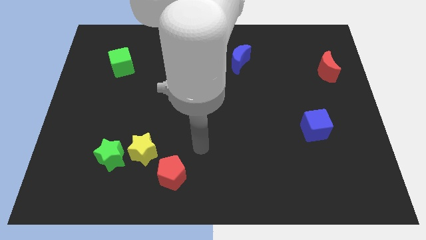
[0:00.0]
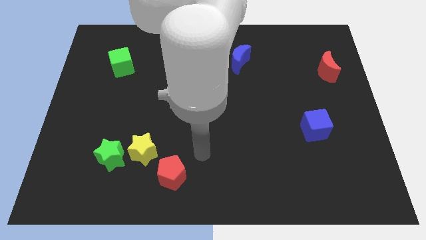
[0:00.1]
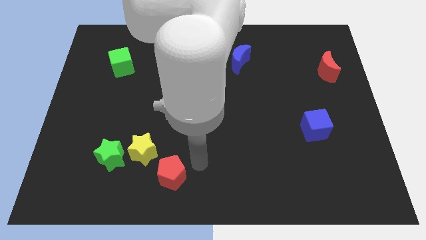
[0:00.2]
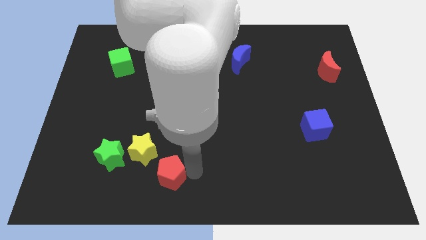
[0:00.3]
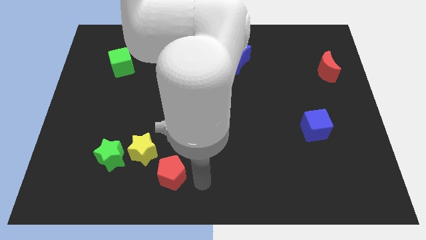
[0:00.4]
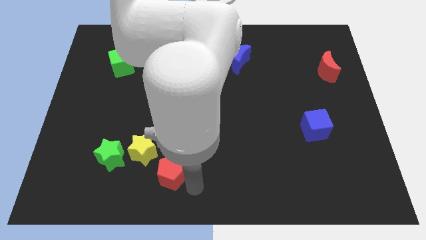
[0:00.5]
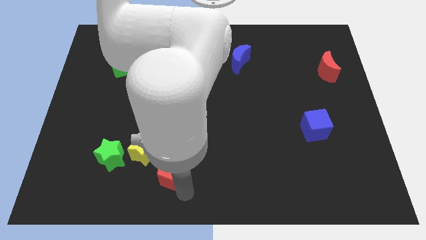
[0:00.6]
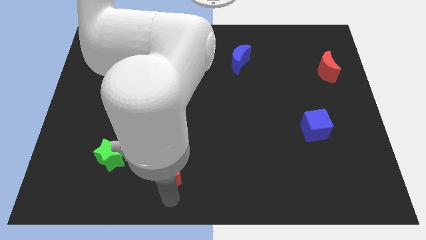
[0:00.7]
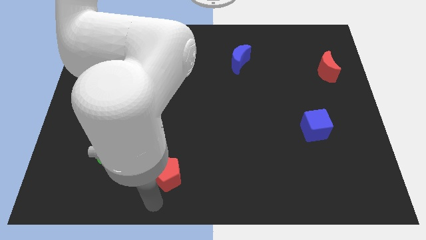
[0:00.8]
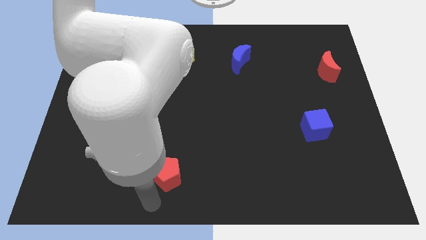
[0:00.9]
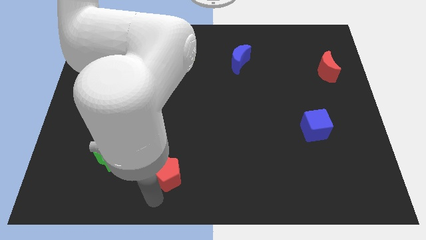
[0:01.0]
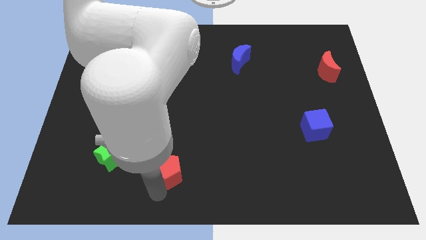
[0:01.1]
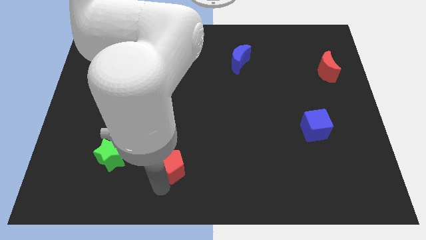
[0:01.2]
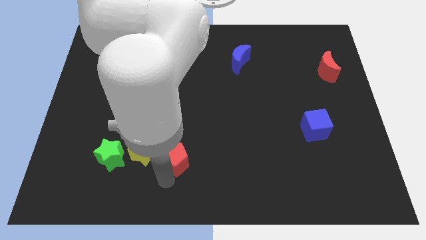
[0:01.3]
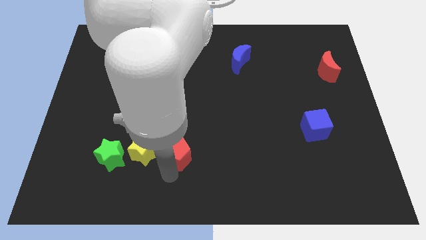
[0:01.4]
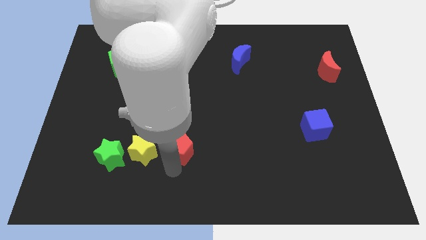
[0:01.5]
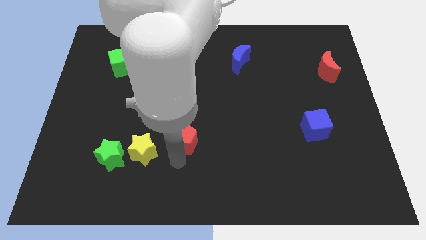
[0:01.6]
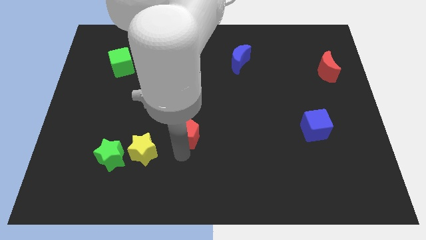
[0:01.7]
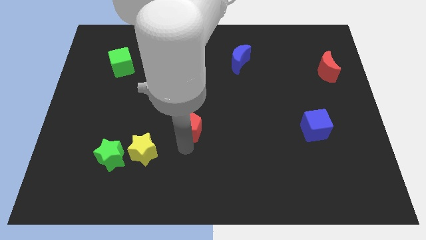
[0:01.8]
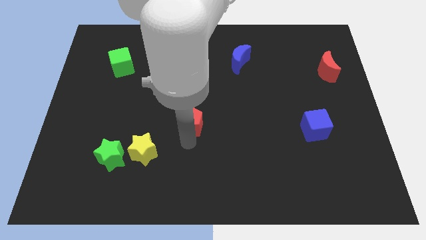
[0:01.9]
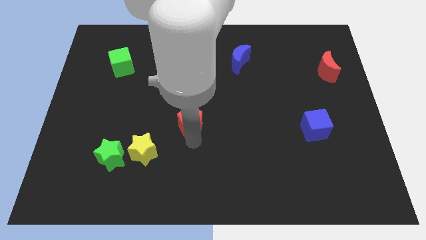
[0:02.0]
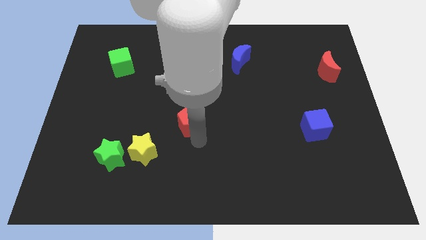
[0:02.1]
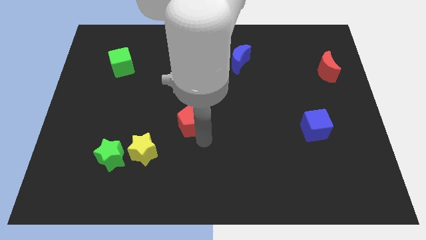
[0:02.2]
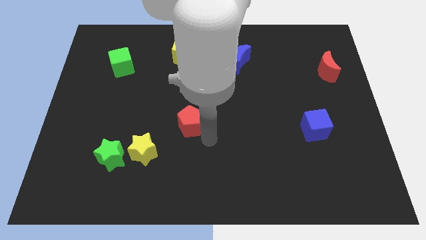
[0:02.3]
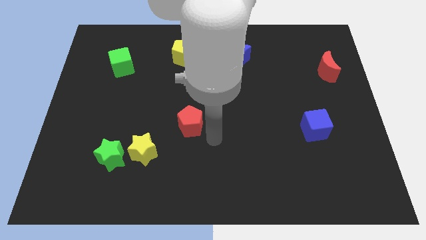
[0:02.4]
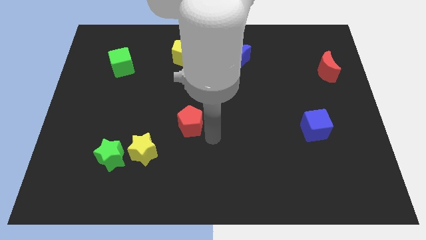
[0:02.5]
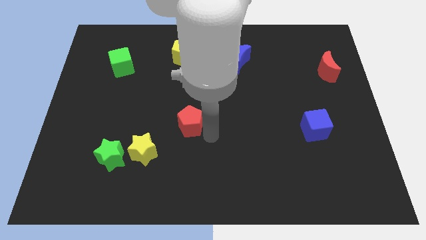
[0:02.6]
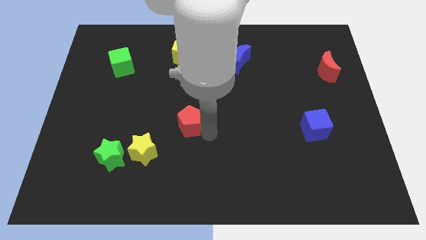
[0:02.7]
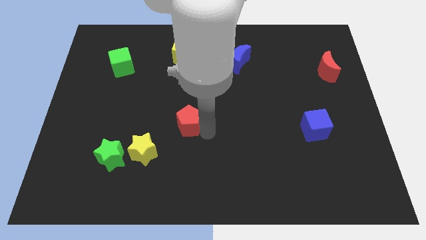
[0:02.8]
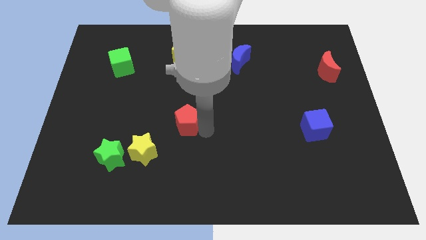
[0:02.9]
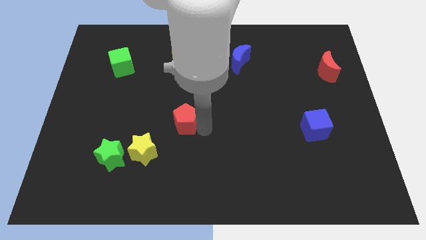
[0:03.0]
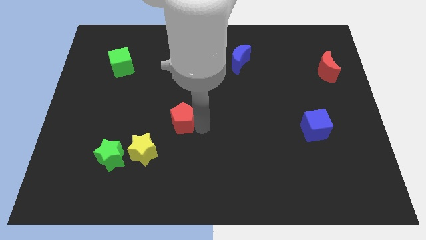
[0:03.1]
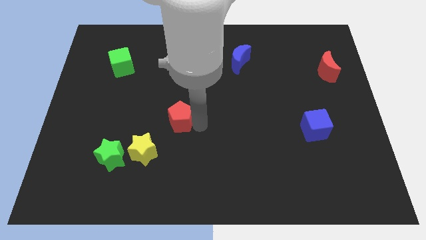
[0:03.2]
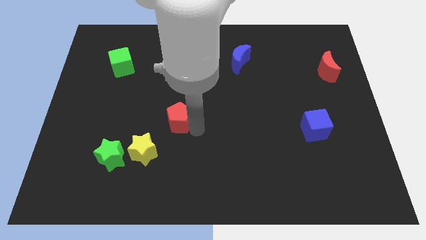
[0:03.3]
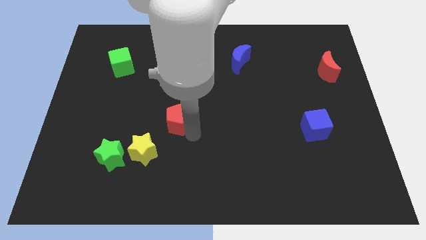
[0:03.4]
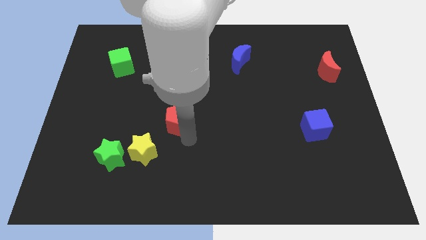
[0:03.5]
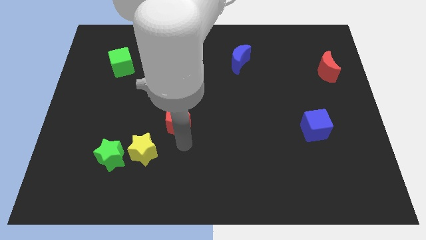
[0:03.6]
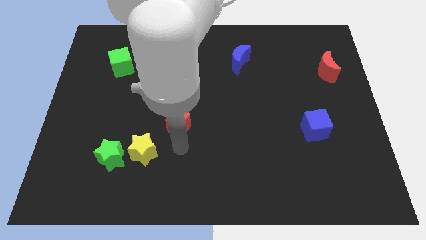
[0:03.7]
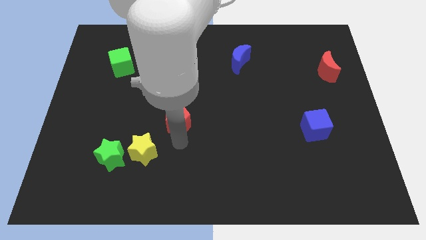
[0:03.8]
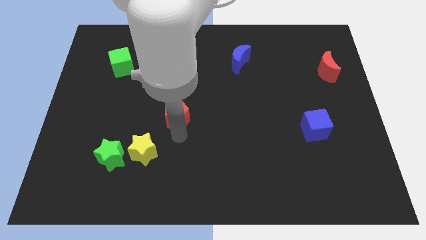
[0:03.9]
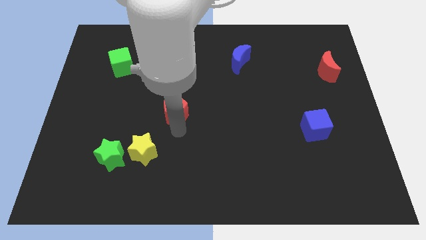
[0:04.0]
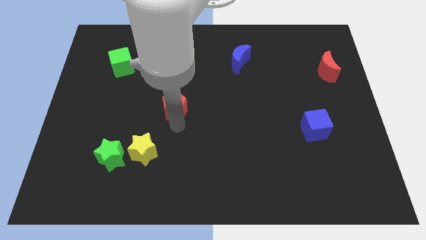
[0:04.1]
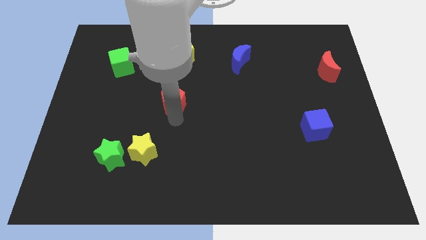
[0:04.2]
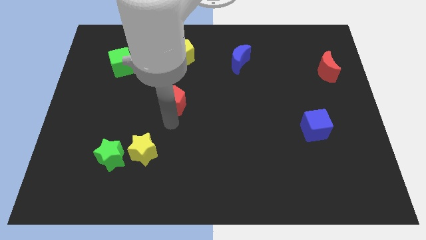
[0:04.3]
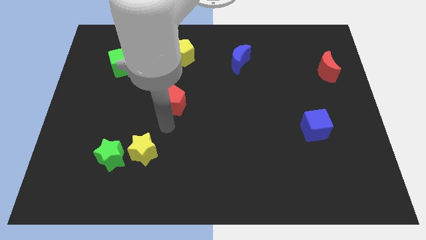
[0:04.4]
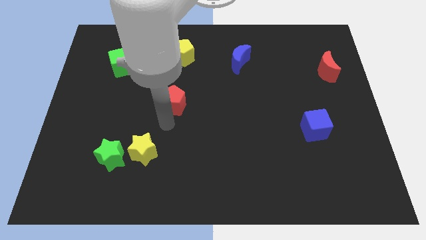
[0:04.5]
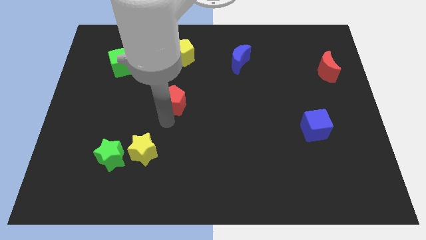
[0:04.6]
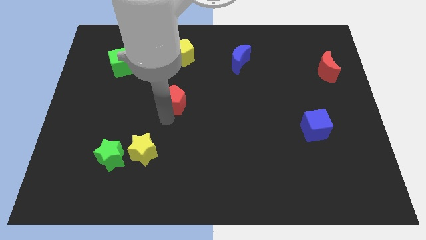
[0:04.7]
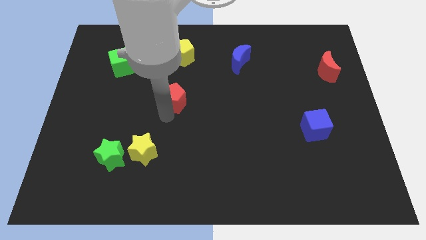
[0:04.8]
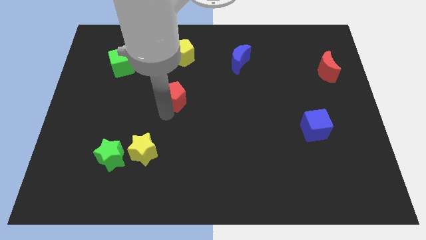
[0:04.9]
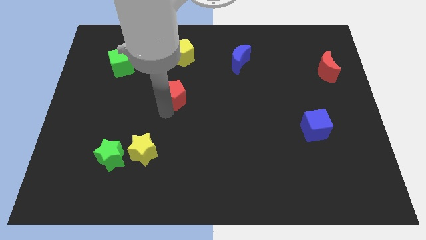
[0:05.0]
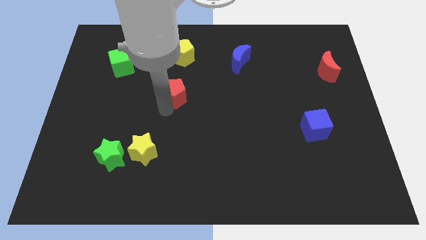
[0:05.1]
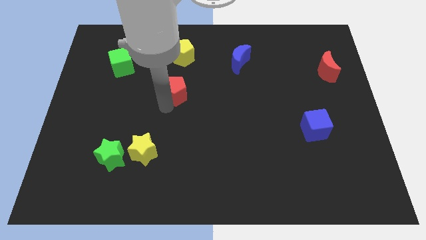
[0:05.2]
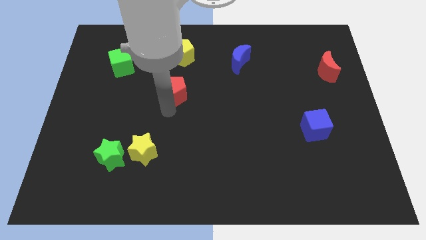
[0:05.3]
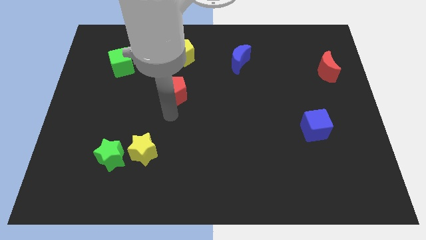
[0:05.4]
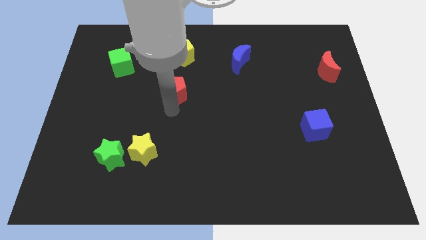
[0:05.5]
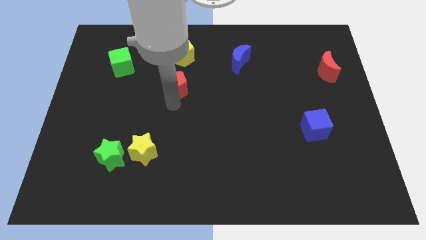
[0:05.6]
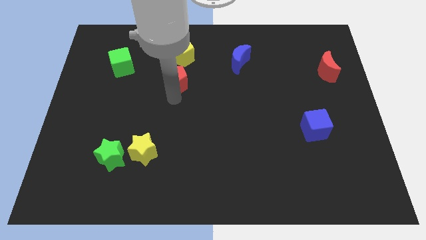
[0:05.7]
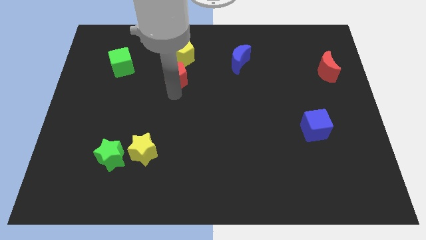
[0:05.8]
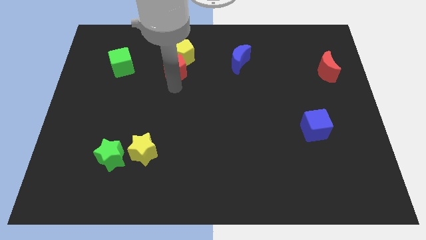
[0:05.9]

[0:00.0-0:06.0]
push the red pentagon close to the yellow pentagon

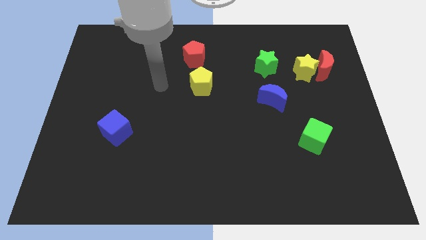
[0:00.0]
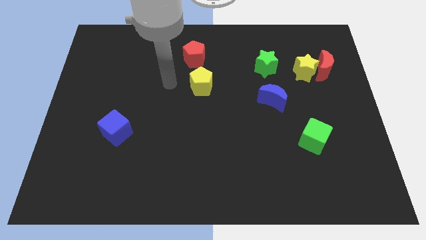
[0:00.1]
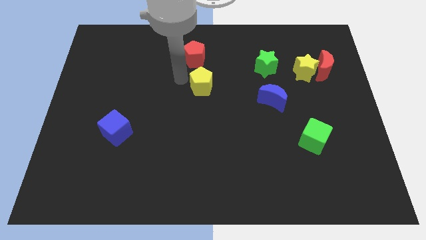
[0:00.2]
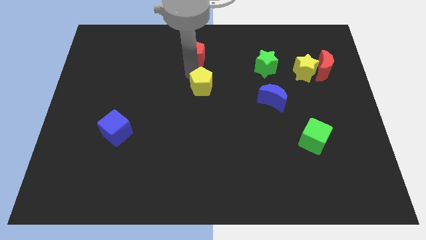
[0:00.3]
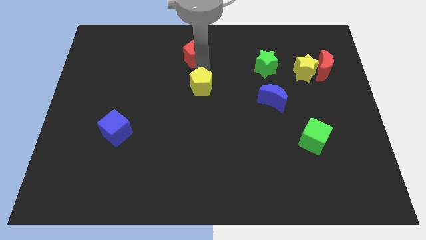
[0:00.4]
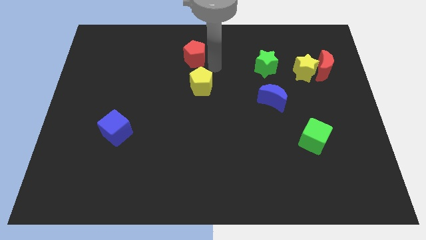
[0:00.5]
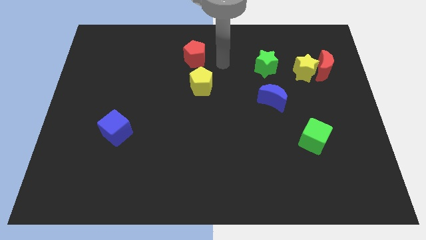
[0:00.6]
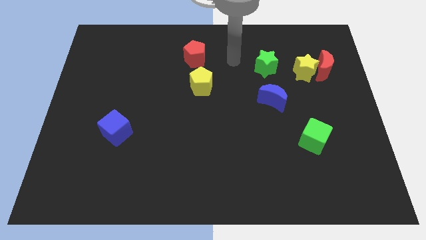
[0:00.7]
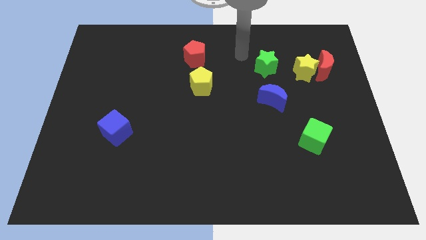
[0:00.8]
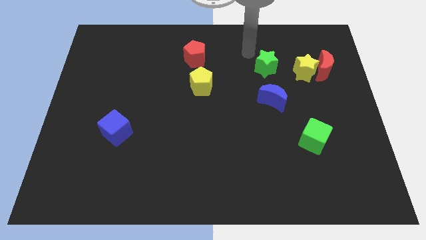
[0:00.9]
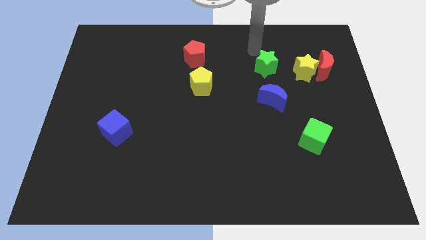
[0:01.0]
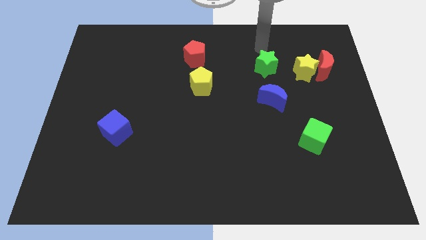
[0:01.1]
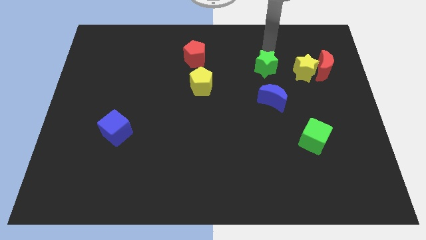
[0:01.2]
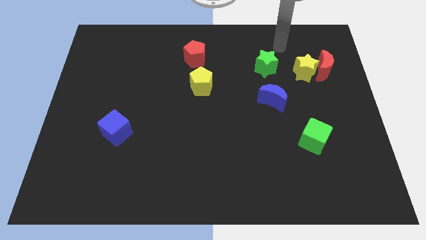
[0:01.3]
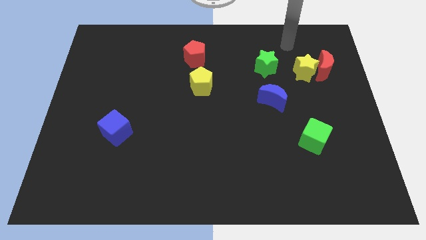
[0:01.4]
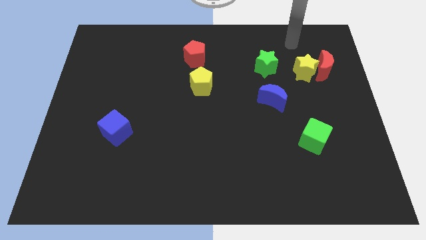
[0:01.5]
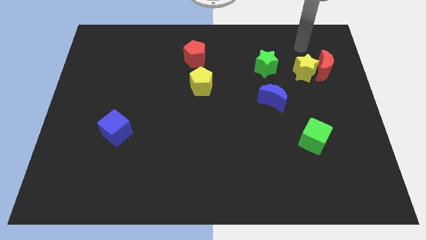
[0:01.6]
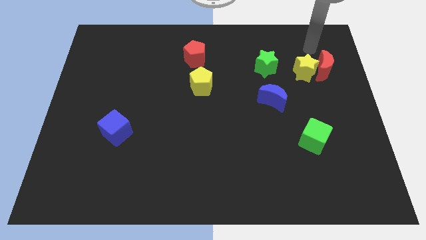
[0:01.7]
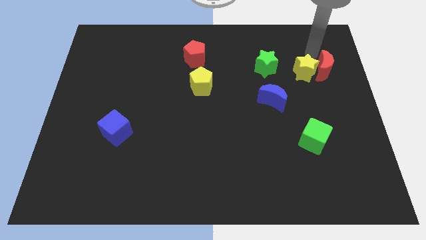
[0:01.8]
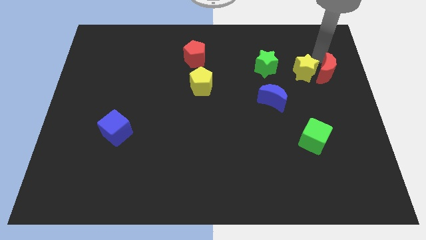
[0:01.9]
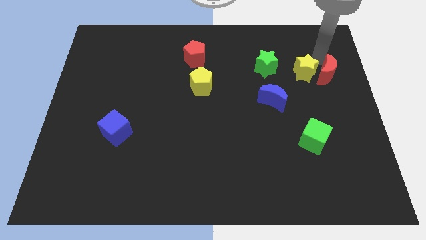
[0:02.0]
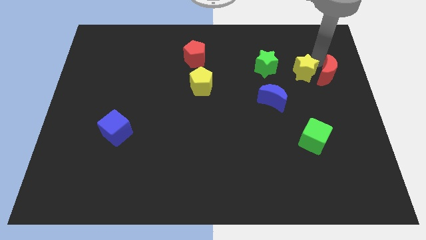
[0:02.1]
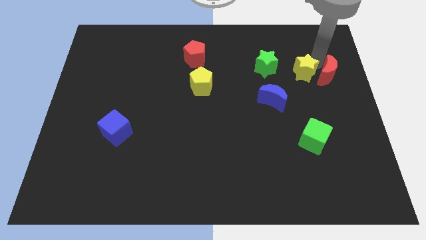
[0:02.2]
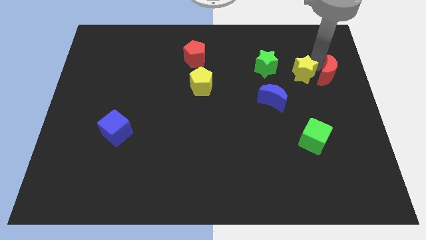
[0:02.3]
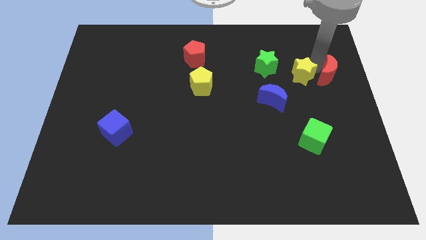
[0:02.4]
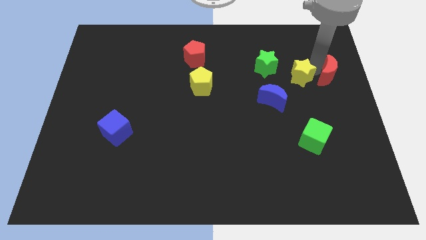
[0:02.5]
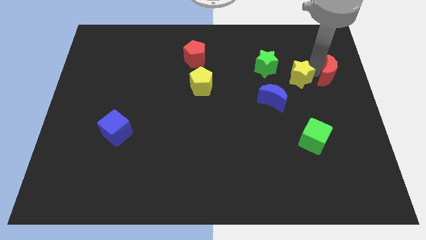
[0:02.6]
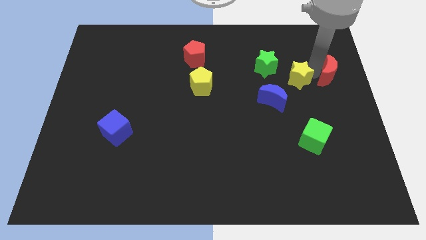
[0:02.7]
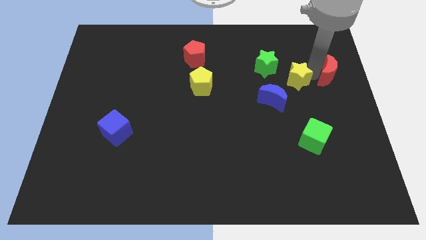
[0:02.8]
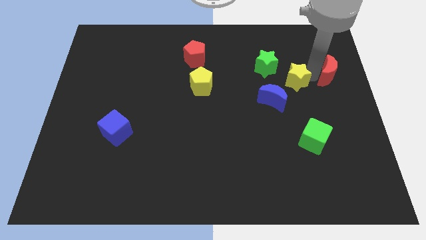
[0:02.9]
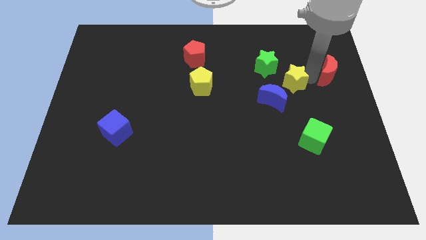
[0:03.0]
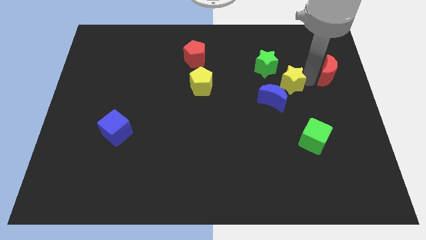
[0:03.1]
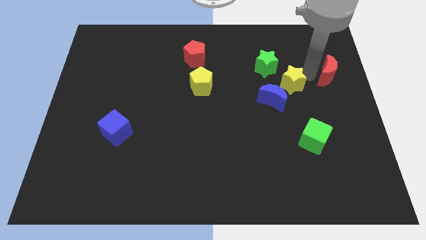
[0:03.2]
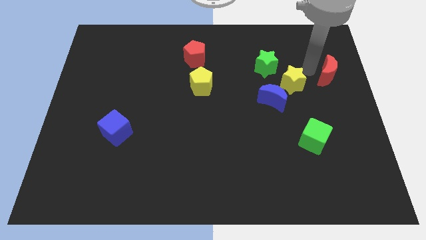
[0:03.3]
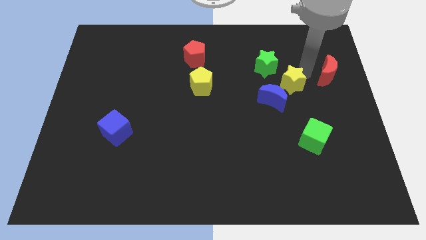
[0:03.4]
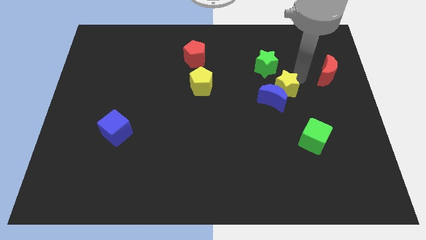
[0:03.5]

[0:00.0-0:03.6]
slide the yellow star to the blue moon
